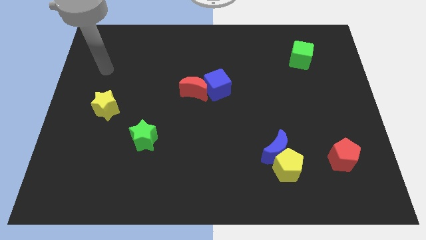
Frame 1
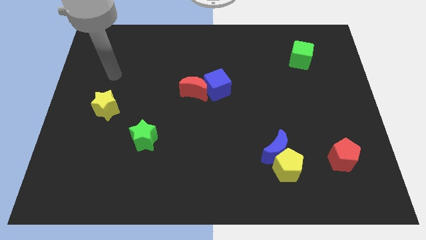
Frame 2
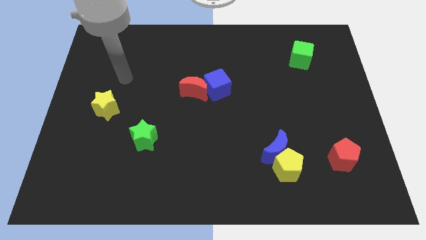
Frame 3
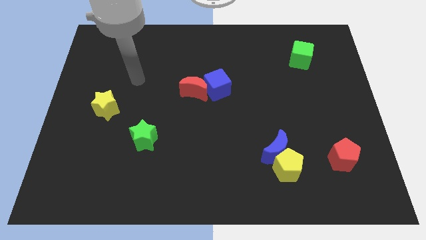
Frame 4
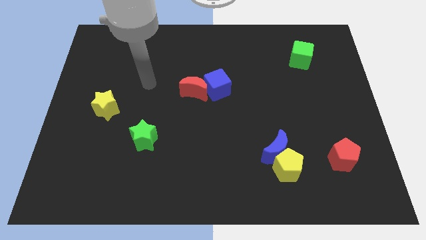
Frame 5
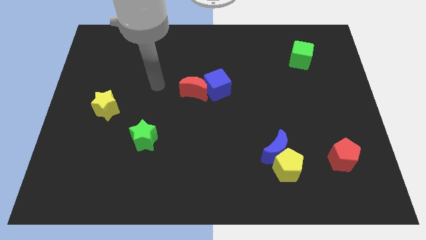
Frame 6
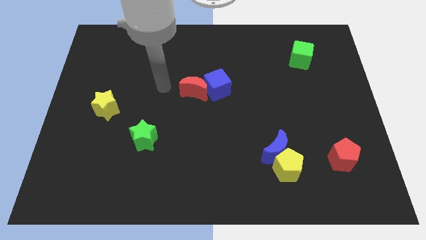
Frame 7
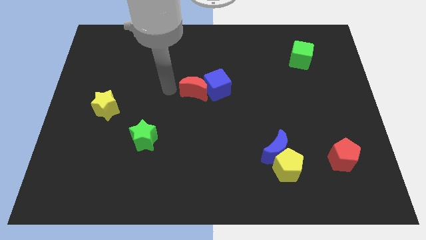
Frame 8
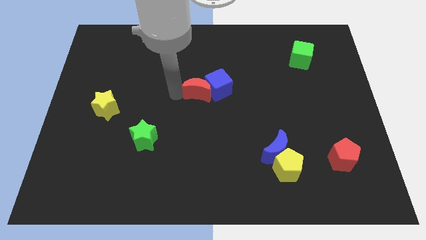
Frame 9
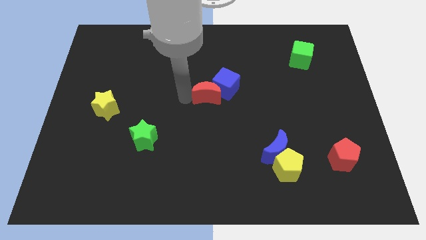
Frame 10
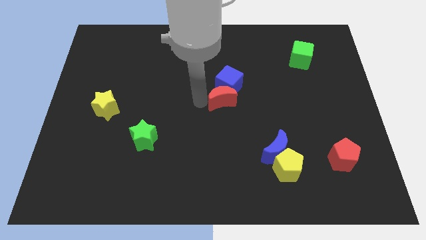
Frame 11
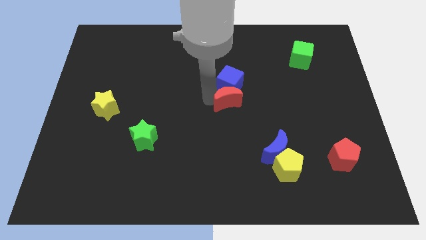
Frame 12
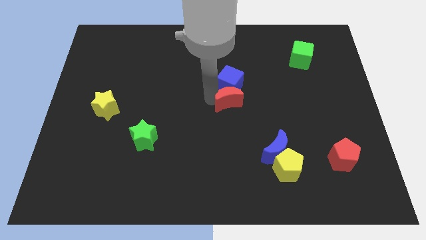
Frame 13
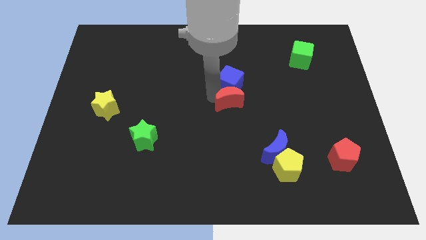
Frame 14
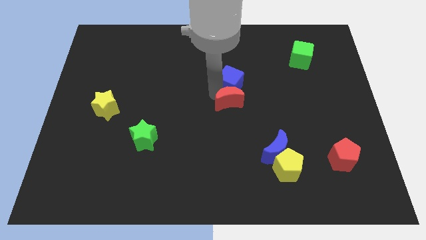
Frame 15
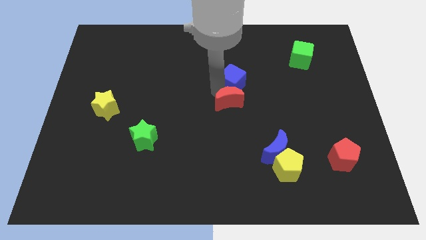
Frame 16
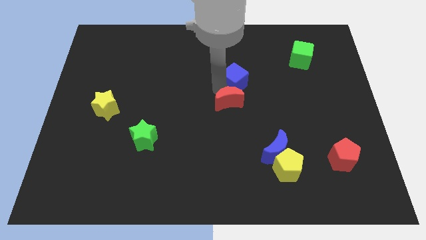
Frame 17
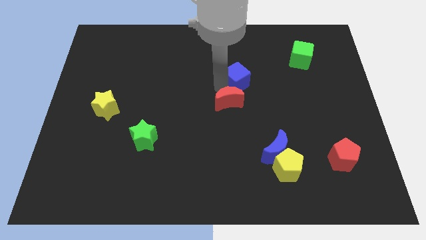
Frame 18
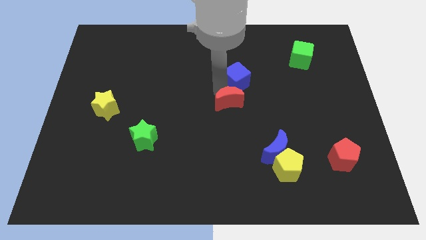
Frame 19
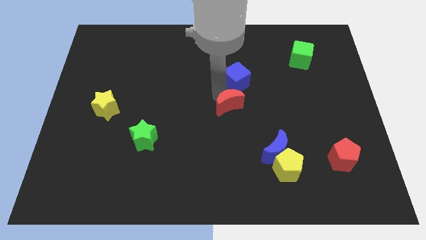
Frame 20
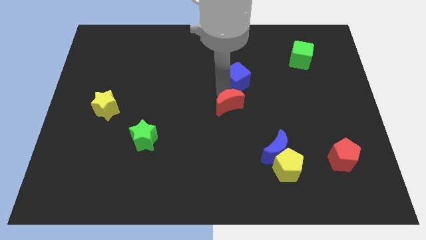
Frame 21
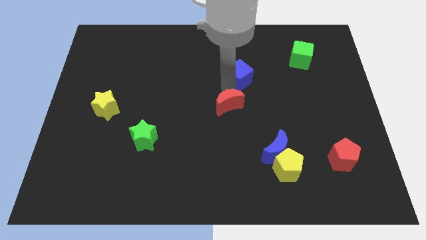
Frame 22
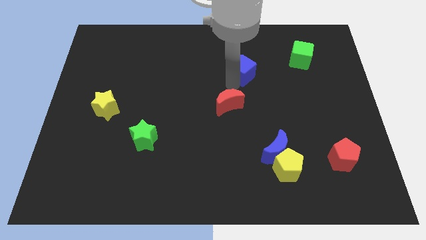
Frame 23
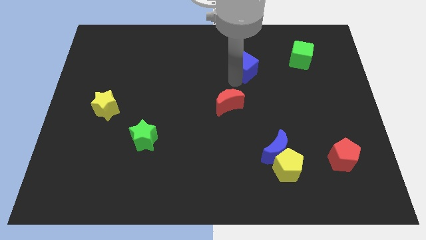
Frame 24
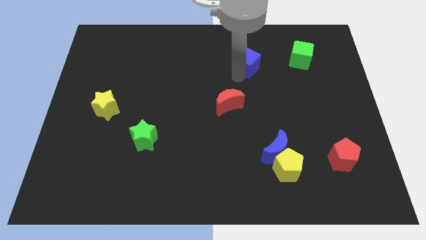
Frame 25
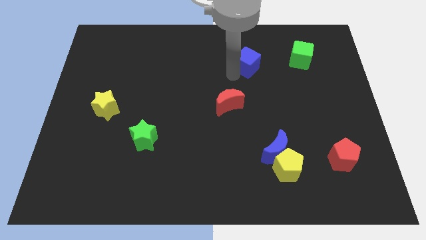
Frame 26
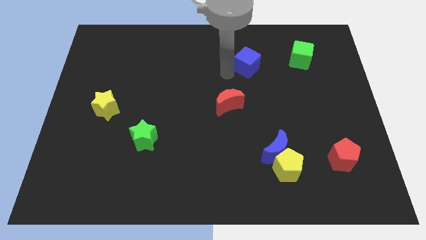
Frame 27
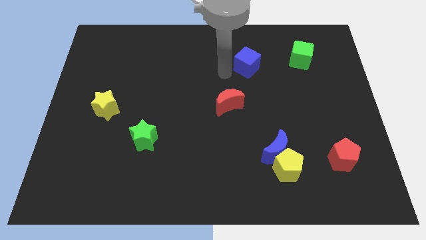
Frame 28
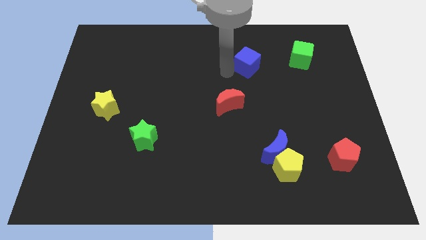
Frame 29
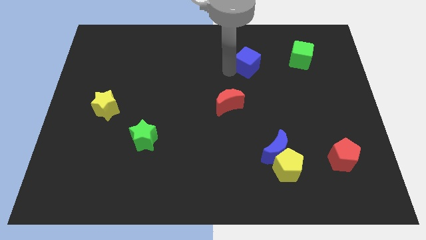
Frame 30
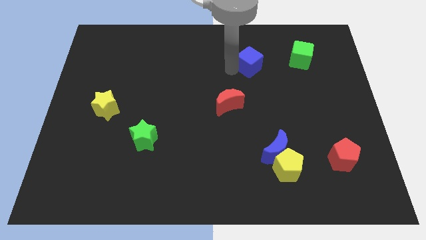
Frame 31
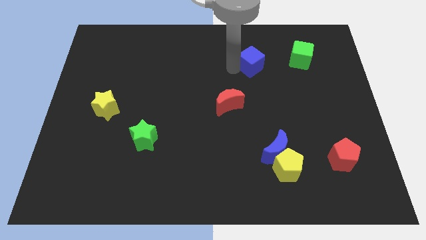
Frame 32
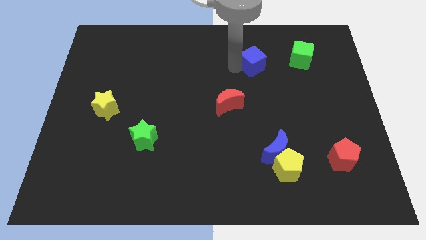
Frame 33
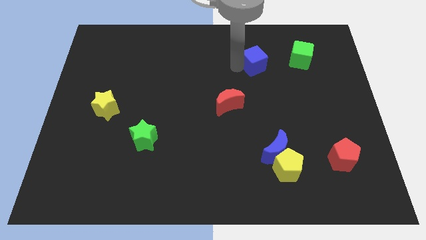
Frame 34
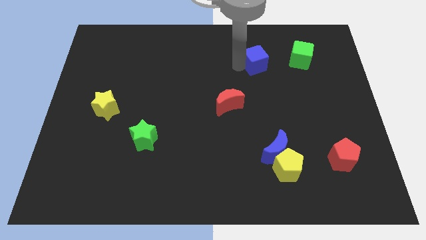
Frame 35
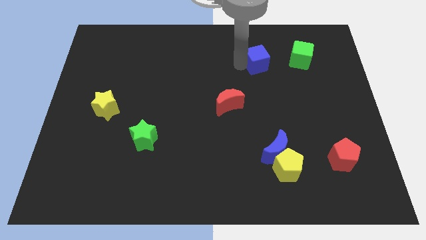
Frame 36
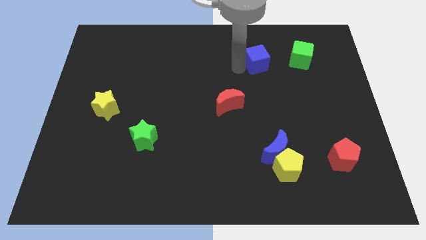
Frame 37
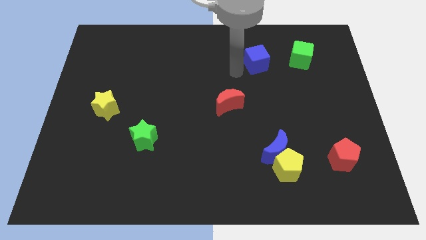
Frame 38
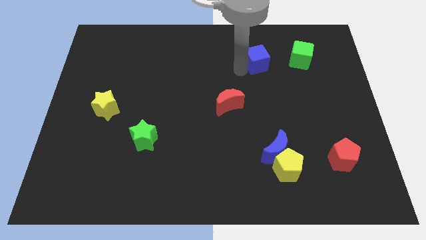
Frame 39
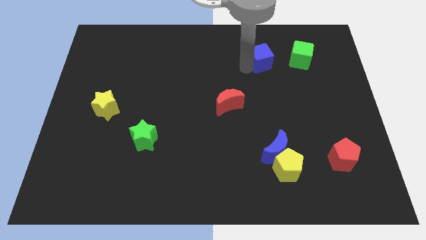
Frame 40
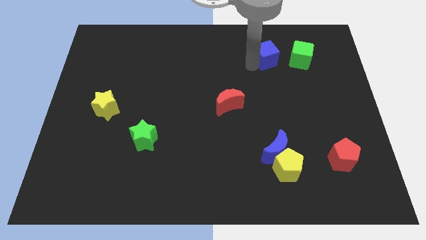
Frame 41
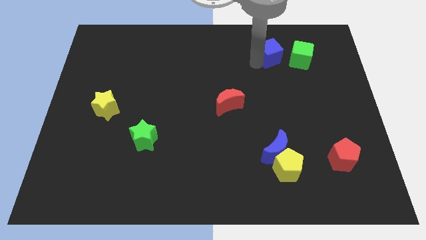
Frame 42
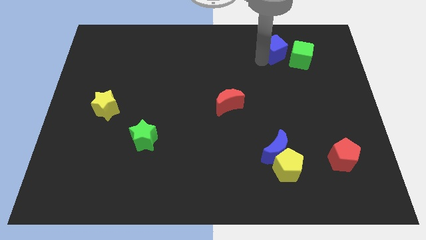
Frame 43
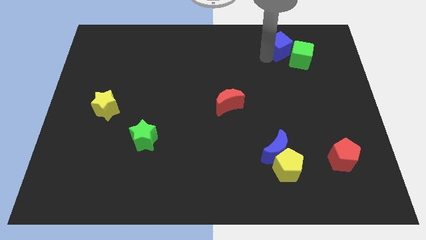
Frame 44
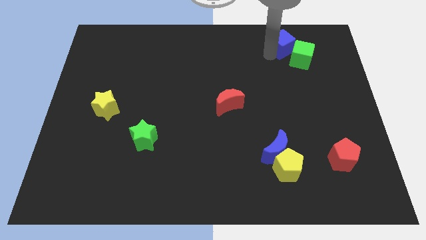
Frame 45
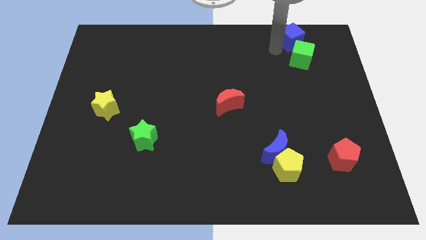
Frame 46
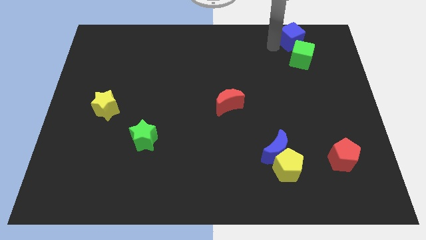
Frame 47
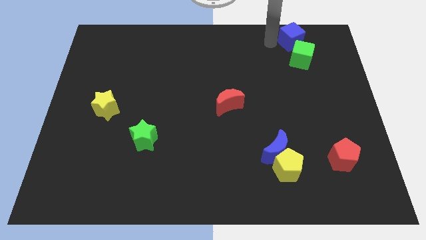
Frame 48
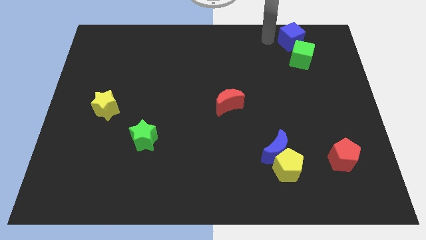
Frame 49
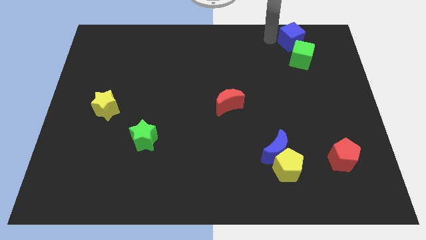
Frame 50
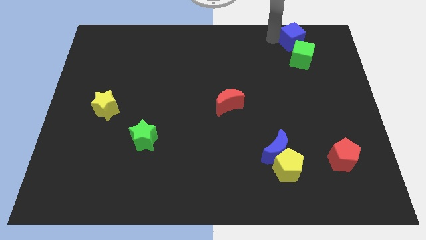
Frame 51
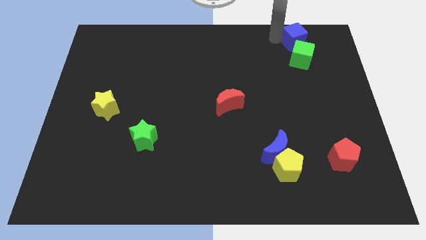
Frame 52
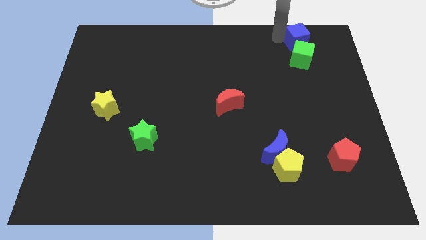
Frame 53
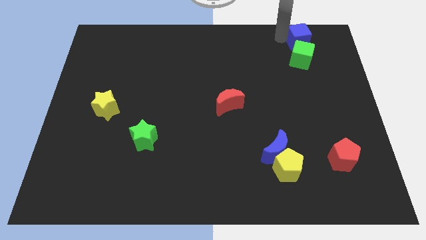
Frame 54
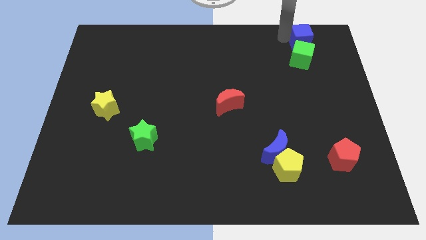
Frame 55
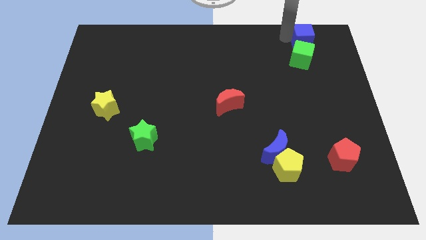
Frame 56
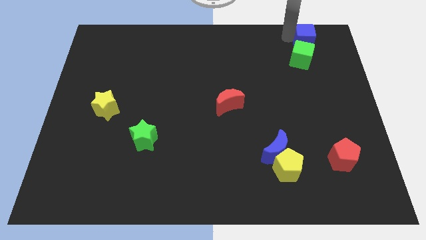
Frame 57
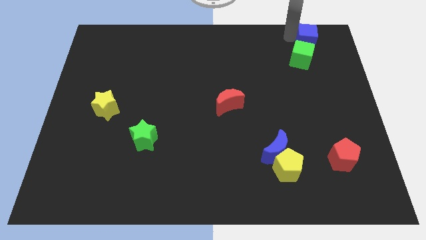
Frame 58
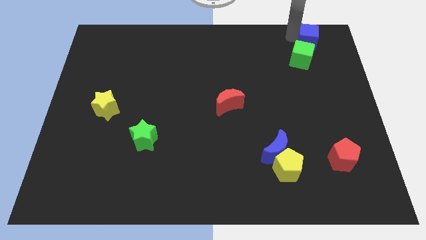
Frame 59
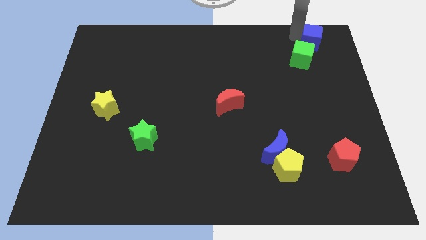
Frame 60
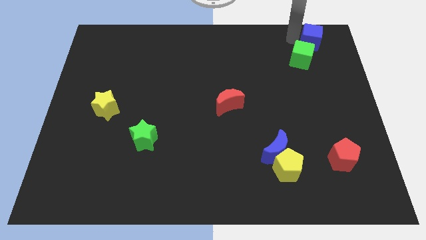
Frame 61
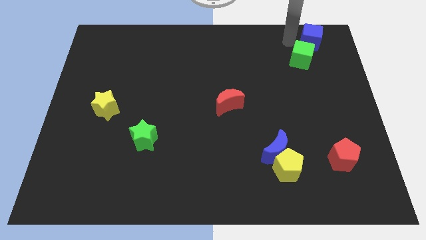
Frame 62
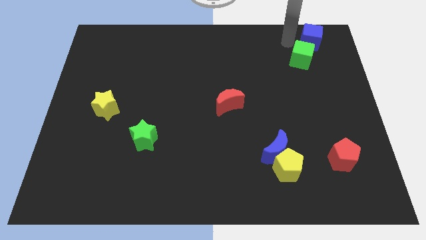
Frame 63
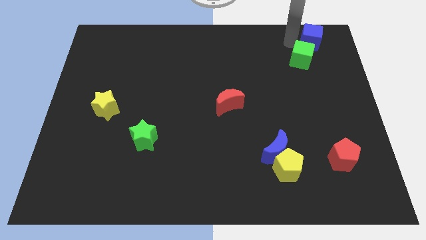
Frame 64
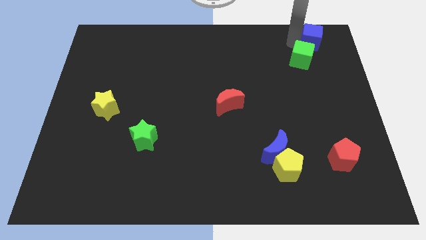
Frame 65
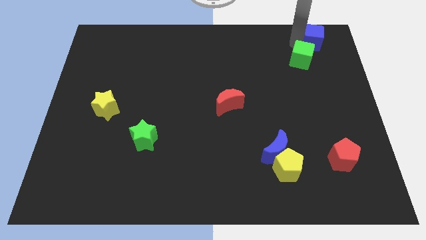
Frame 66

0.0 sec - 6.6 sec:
put the blue cube to the top right
